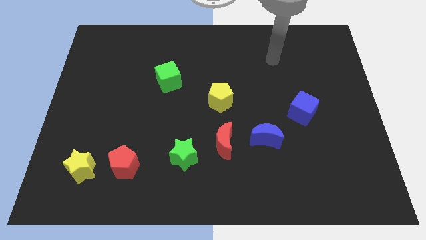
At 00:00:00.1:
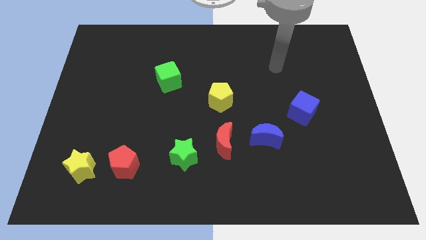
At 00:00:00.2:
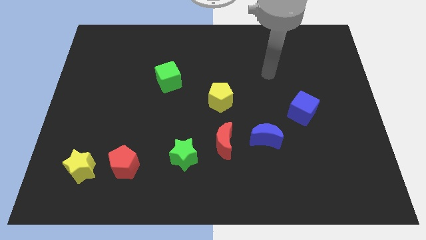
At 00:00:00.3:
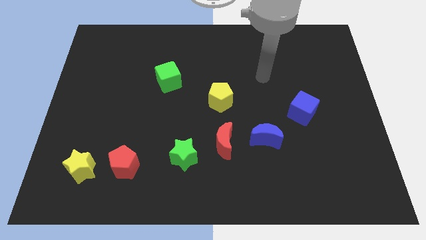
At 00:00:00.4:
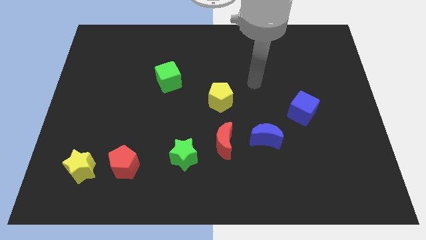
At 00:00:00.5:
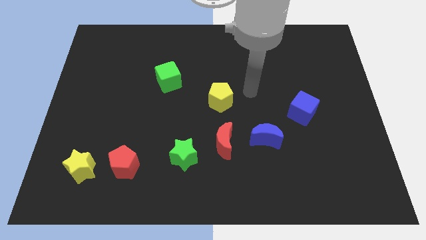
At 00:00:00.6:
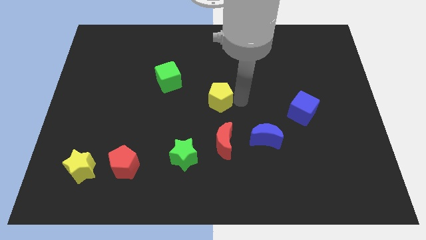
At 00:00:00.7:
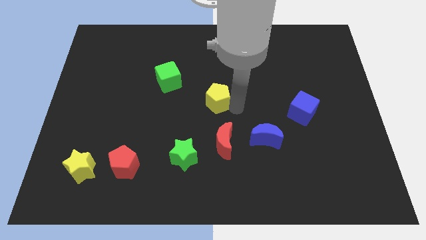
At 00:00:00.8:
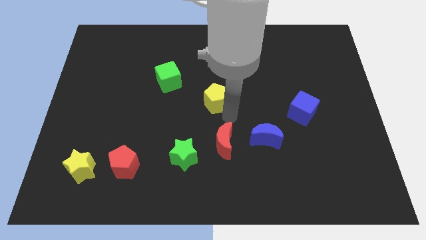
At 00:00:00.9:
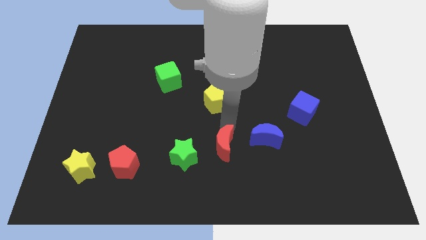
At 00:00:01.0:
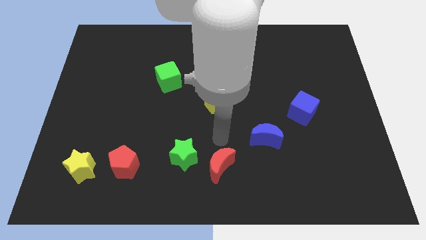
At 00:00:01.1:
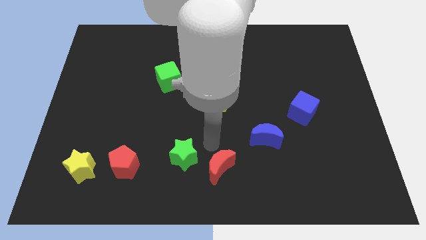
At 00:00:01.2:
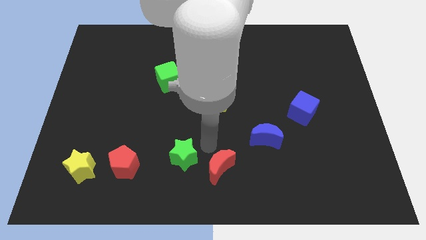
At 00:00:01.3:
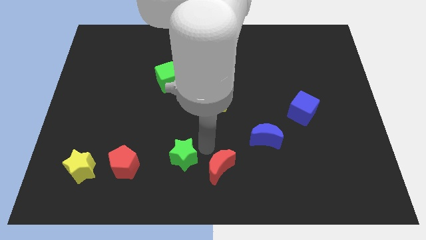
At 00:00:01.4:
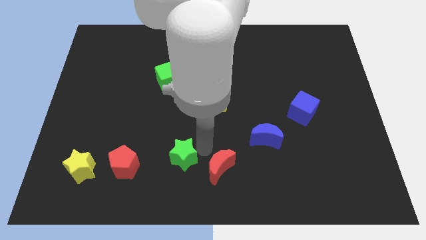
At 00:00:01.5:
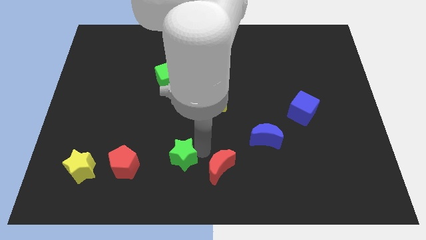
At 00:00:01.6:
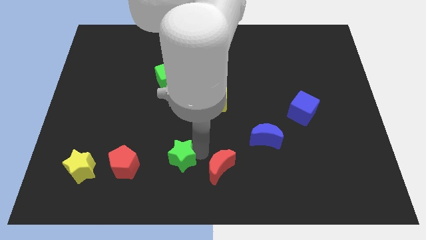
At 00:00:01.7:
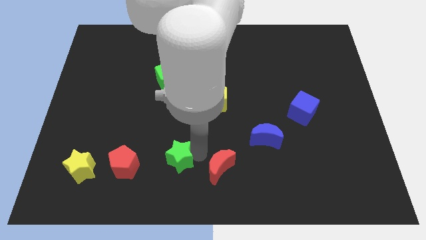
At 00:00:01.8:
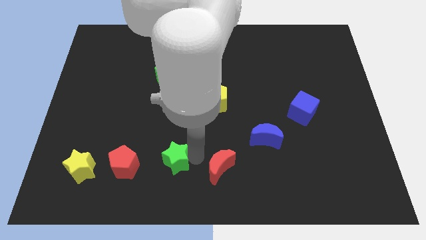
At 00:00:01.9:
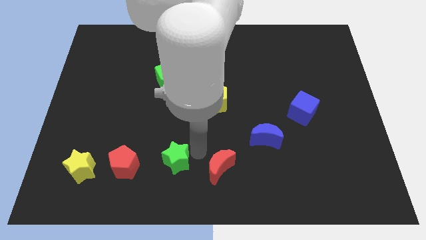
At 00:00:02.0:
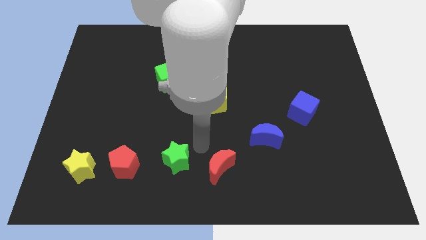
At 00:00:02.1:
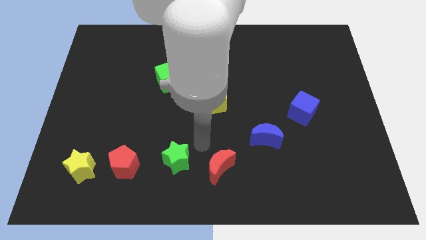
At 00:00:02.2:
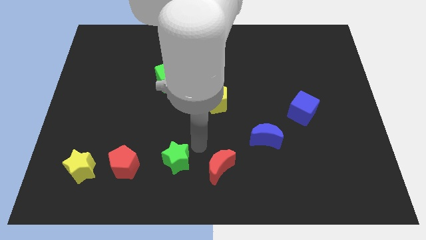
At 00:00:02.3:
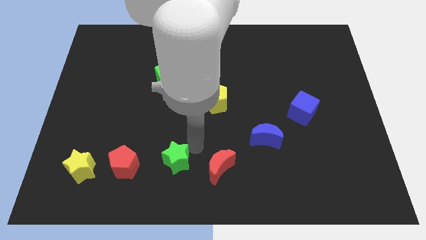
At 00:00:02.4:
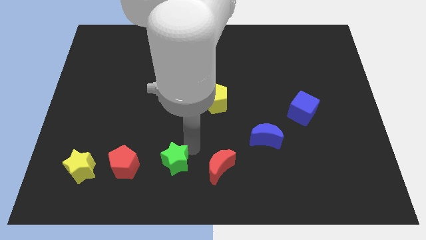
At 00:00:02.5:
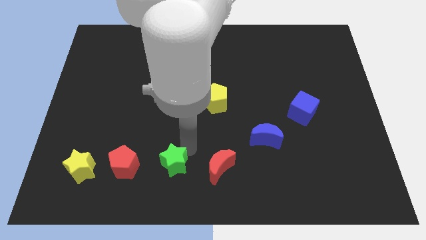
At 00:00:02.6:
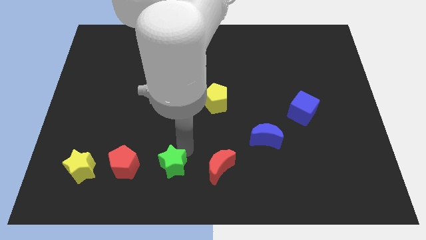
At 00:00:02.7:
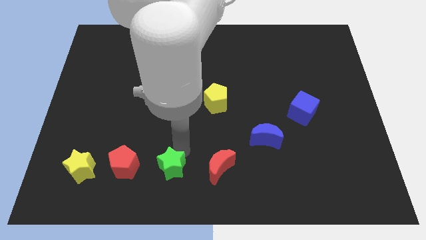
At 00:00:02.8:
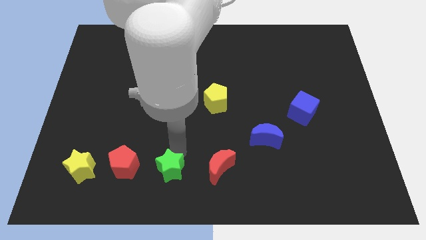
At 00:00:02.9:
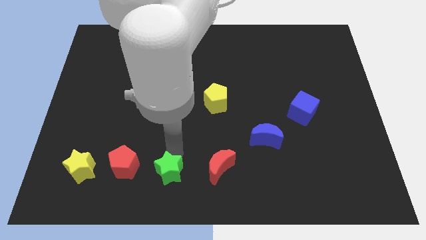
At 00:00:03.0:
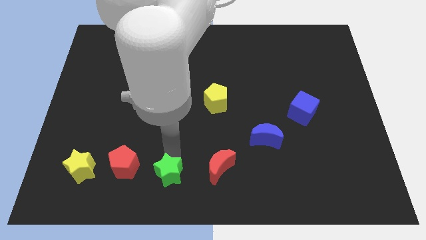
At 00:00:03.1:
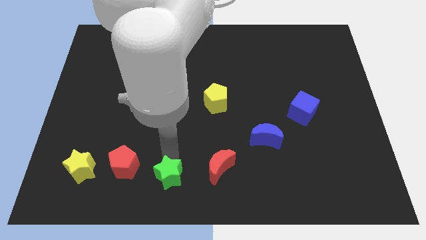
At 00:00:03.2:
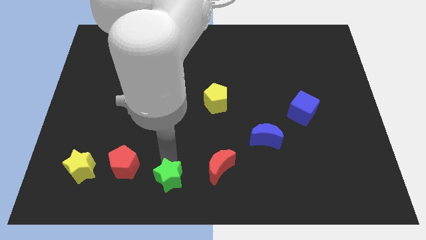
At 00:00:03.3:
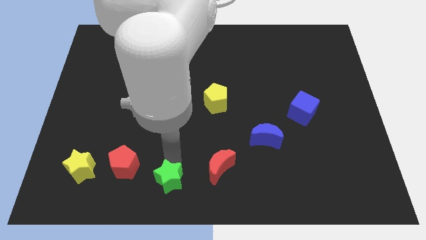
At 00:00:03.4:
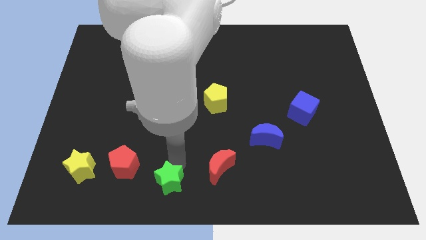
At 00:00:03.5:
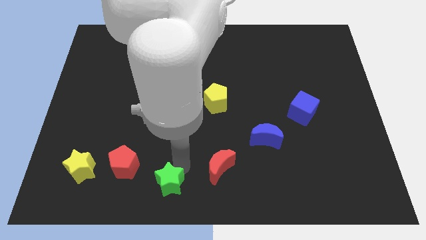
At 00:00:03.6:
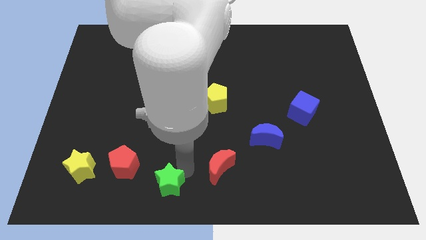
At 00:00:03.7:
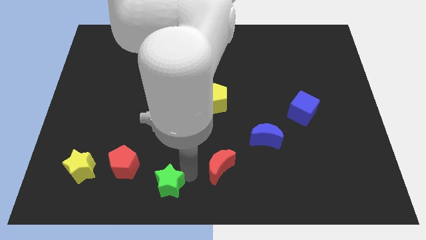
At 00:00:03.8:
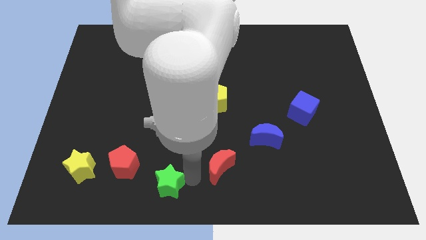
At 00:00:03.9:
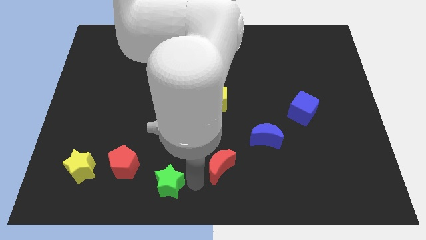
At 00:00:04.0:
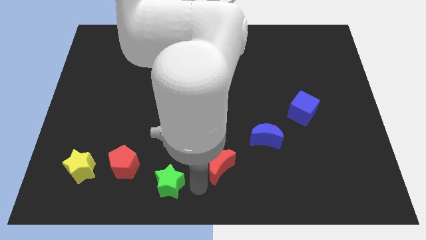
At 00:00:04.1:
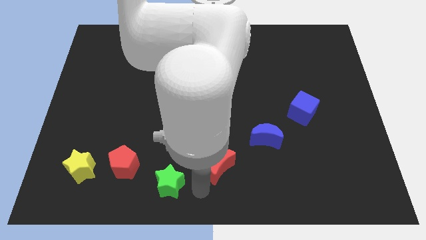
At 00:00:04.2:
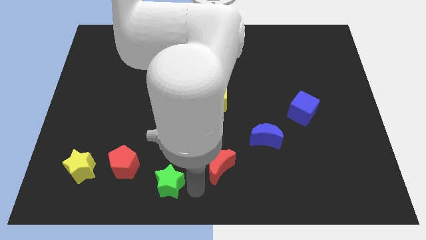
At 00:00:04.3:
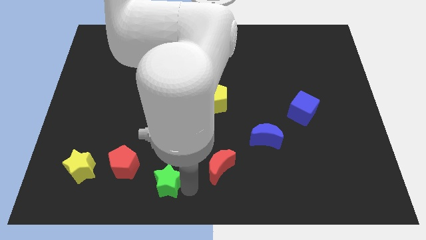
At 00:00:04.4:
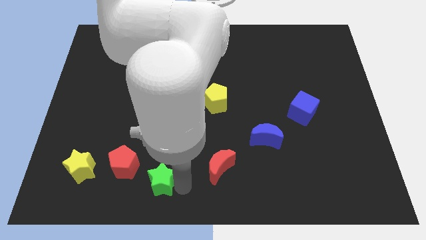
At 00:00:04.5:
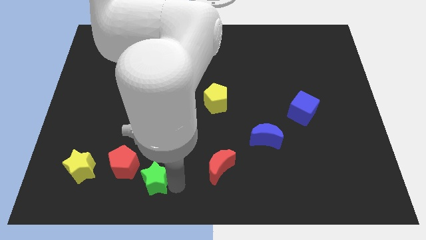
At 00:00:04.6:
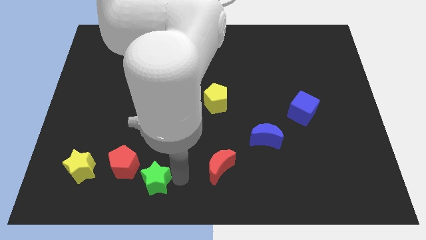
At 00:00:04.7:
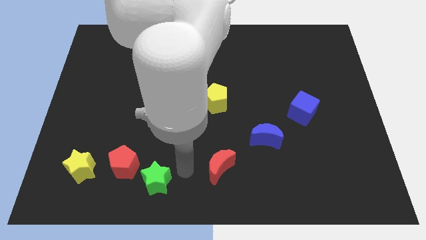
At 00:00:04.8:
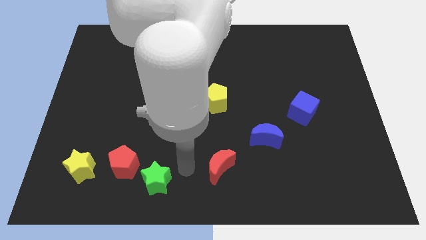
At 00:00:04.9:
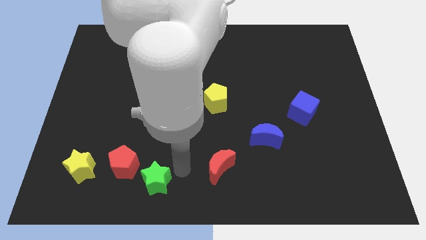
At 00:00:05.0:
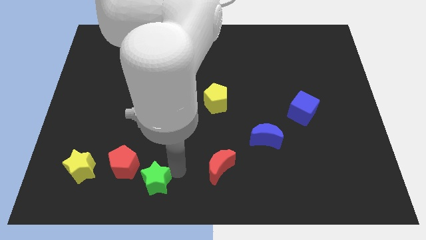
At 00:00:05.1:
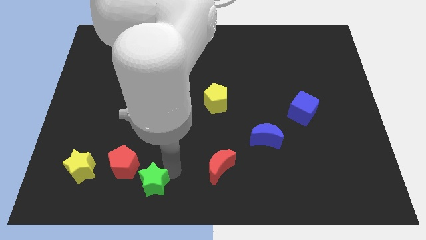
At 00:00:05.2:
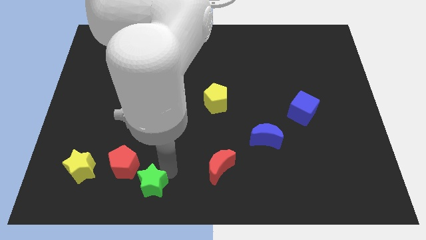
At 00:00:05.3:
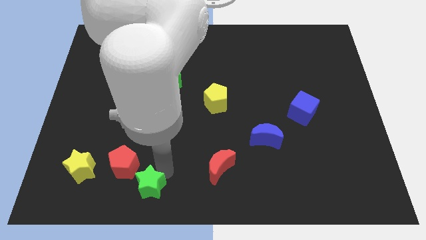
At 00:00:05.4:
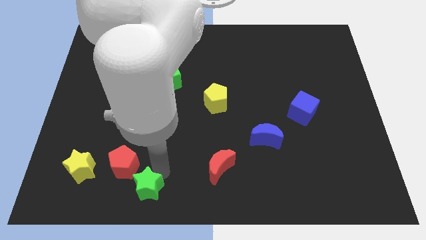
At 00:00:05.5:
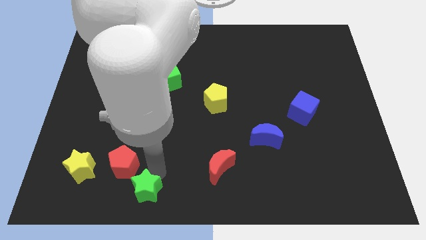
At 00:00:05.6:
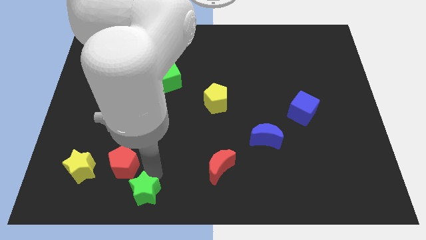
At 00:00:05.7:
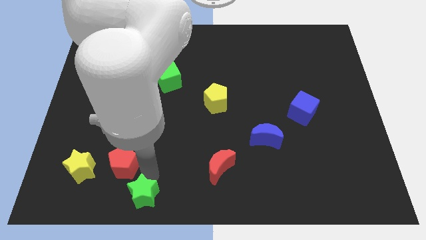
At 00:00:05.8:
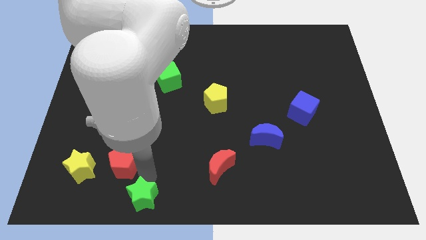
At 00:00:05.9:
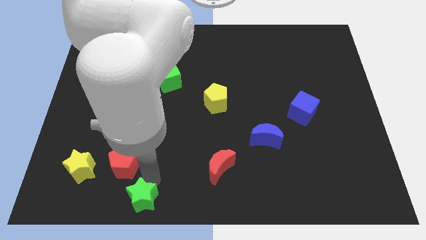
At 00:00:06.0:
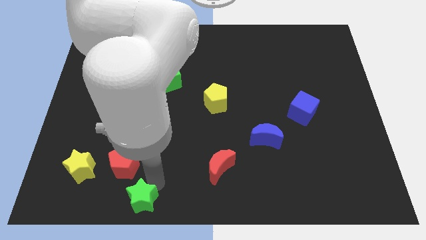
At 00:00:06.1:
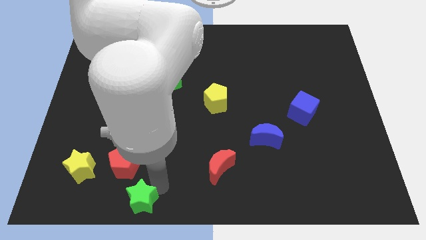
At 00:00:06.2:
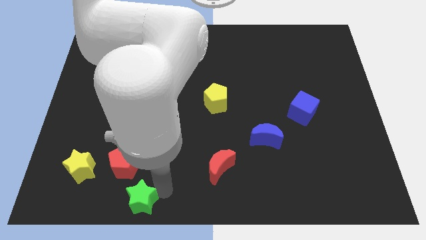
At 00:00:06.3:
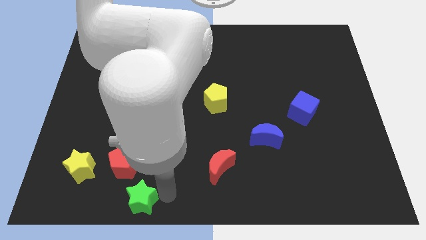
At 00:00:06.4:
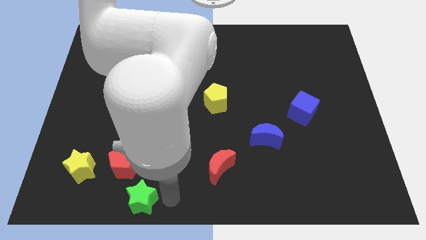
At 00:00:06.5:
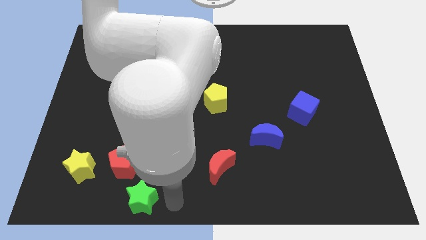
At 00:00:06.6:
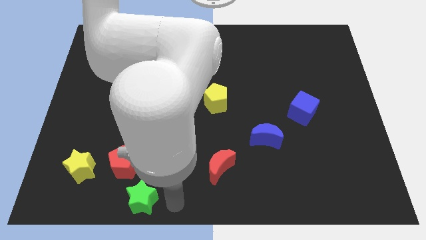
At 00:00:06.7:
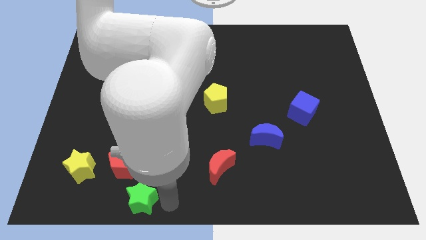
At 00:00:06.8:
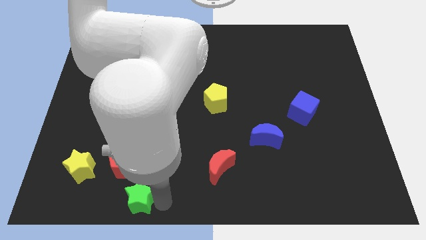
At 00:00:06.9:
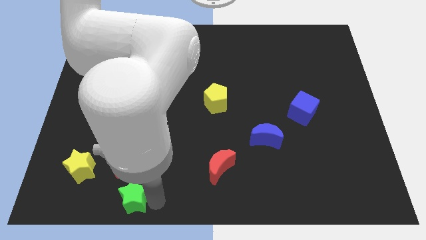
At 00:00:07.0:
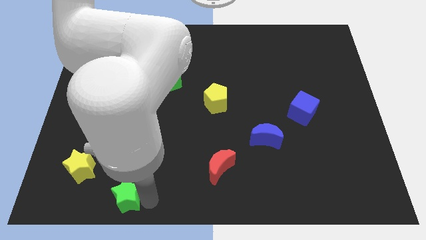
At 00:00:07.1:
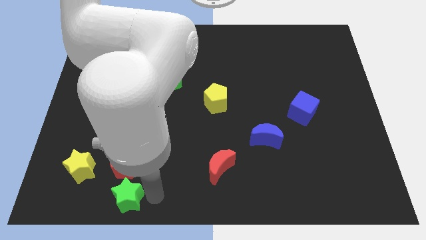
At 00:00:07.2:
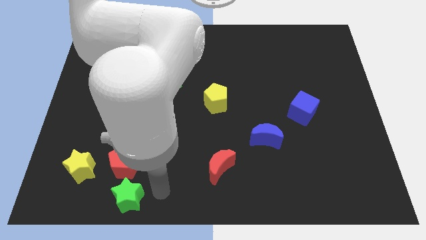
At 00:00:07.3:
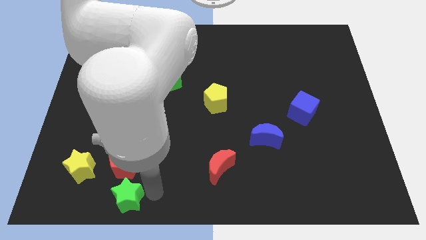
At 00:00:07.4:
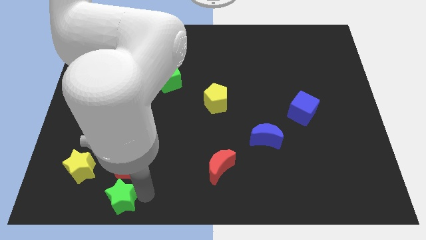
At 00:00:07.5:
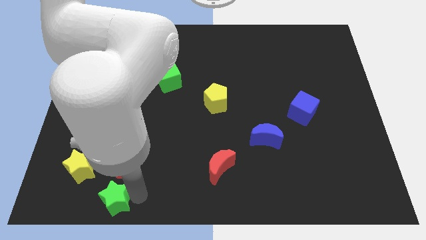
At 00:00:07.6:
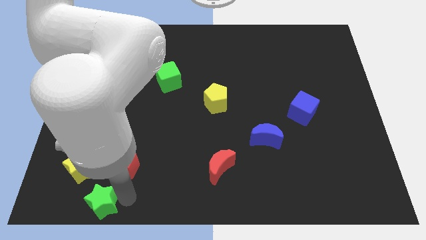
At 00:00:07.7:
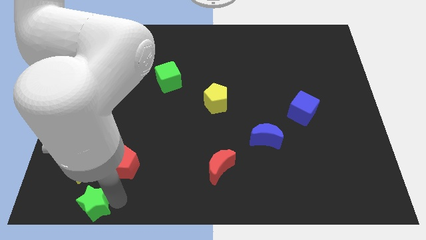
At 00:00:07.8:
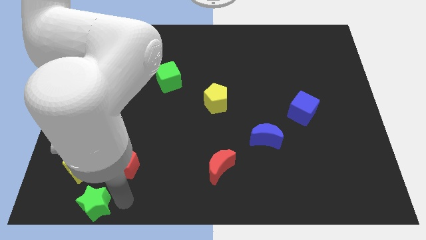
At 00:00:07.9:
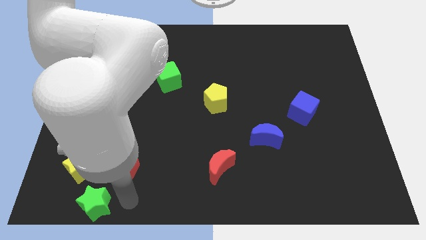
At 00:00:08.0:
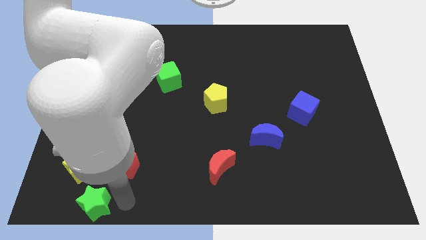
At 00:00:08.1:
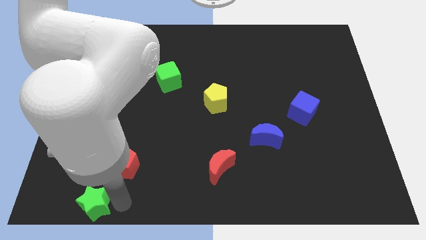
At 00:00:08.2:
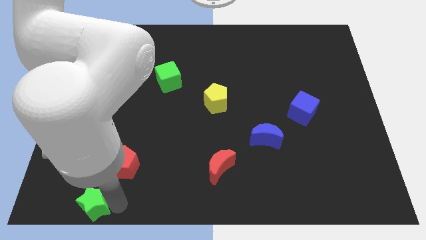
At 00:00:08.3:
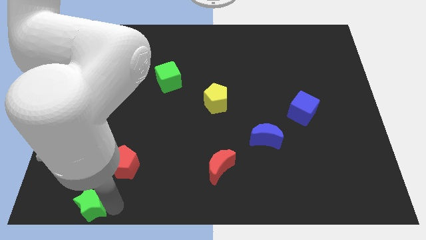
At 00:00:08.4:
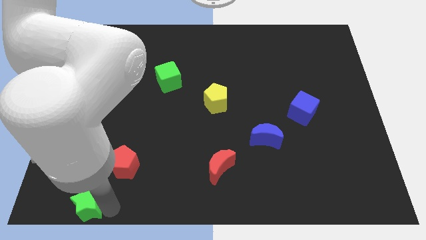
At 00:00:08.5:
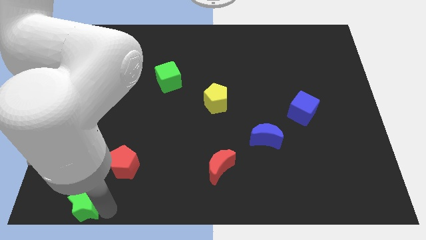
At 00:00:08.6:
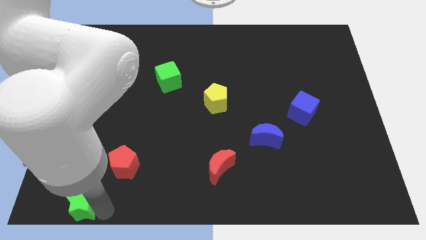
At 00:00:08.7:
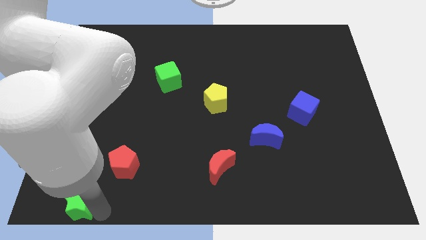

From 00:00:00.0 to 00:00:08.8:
put the green star to the bottom left corner
